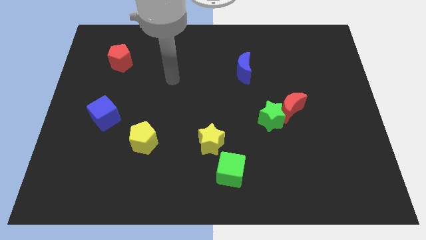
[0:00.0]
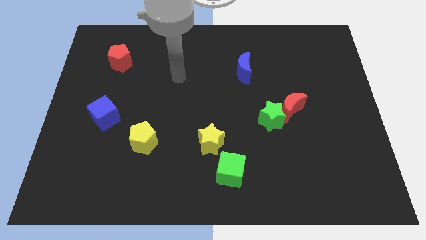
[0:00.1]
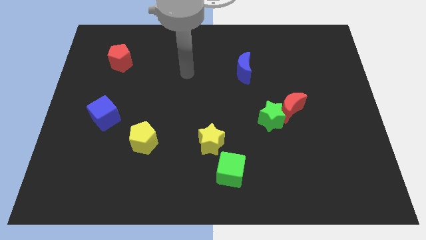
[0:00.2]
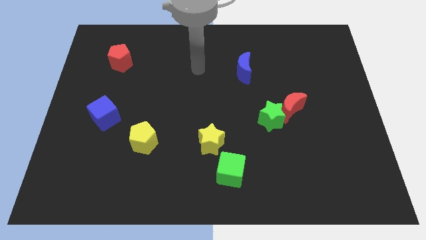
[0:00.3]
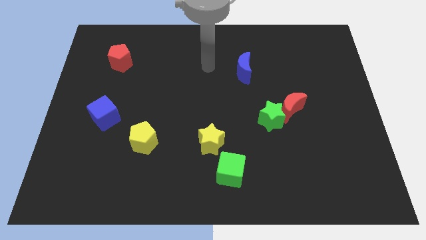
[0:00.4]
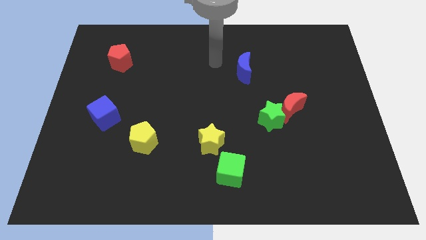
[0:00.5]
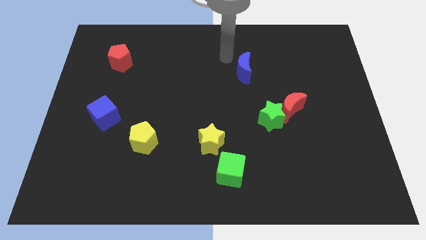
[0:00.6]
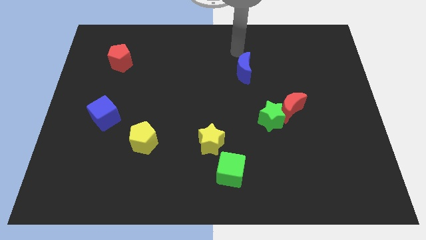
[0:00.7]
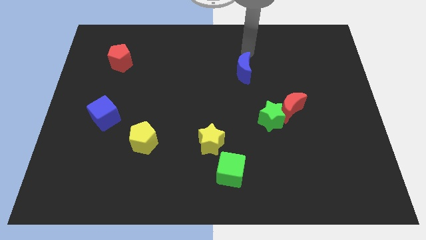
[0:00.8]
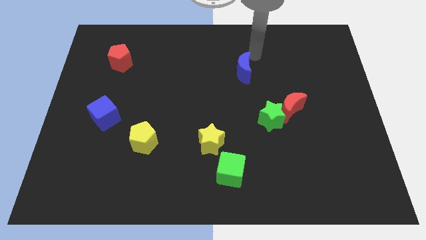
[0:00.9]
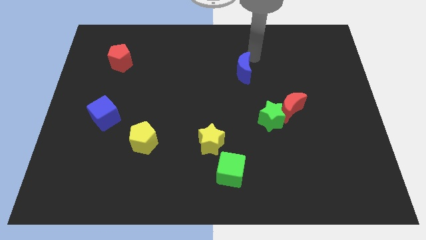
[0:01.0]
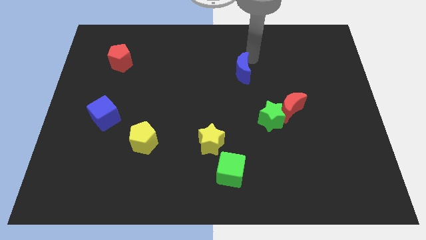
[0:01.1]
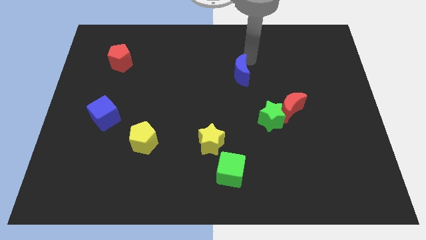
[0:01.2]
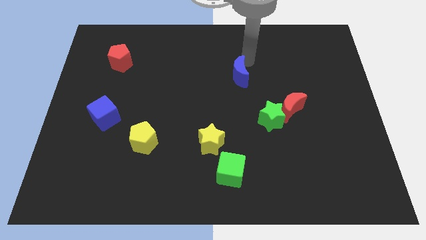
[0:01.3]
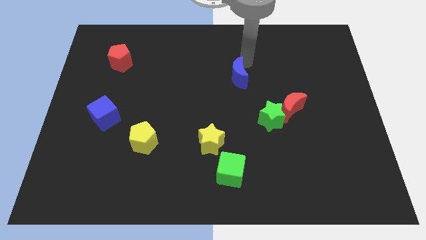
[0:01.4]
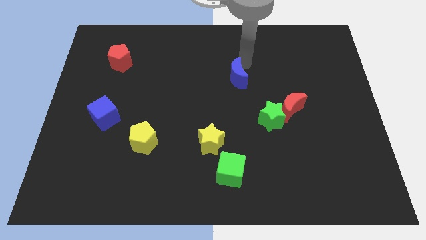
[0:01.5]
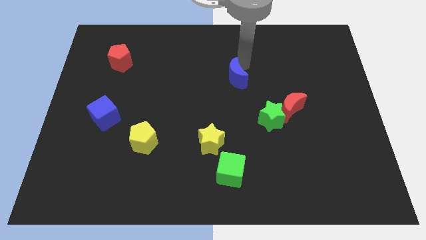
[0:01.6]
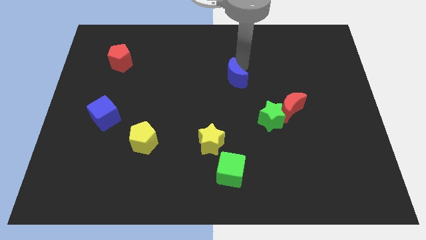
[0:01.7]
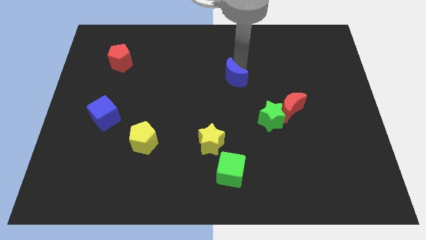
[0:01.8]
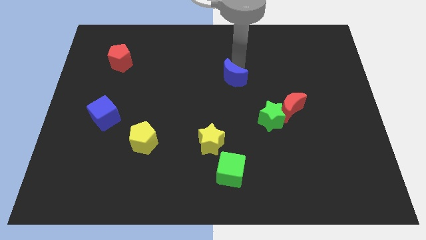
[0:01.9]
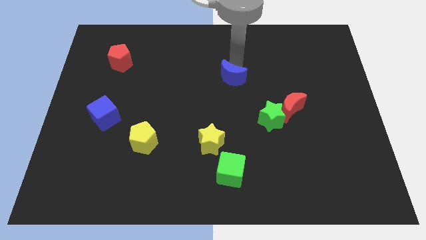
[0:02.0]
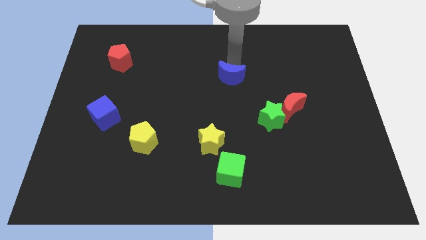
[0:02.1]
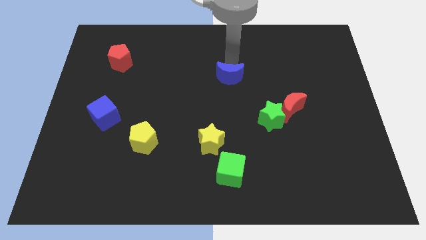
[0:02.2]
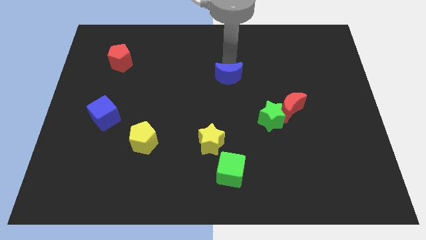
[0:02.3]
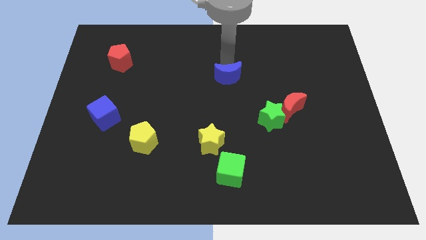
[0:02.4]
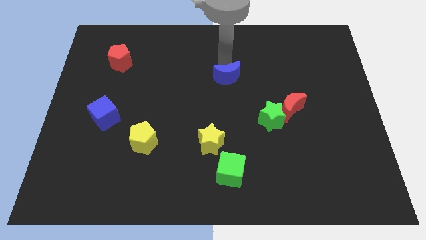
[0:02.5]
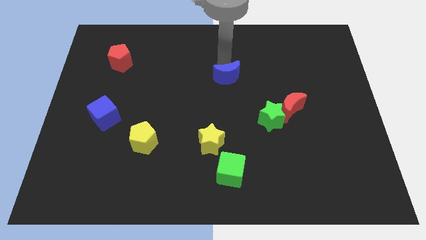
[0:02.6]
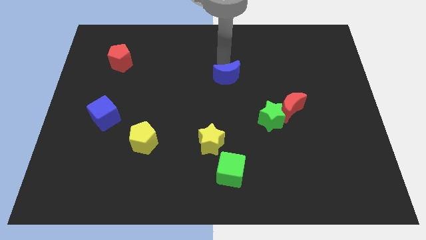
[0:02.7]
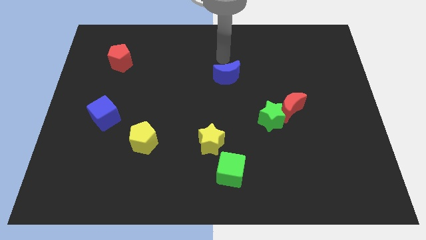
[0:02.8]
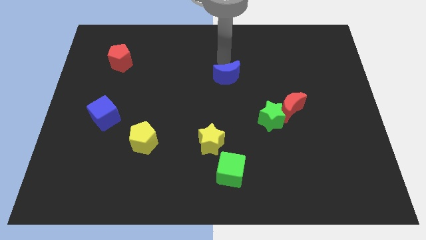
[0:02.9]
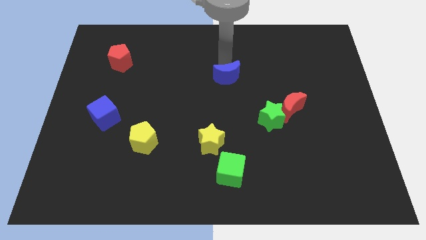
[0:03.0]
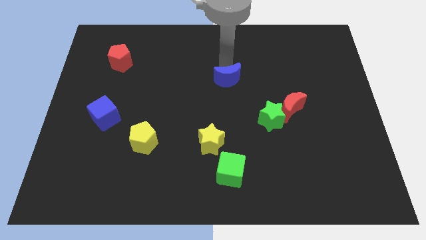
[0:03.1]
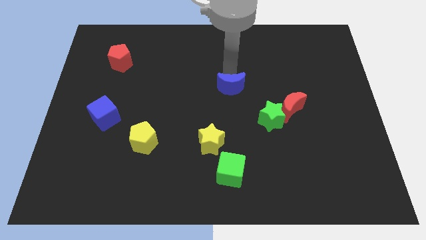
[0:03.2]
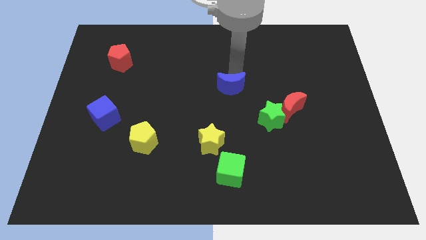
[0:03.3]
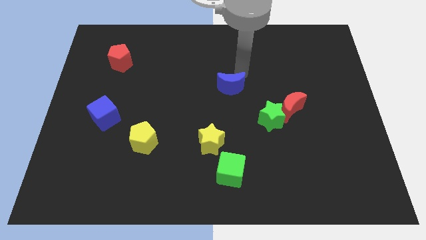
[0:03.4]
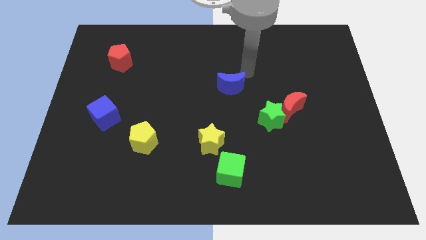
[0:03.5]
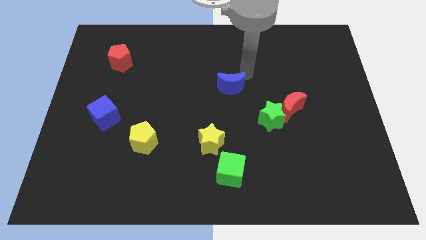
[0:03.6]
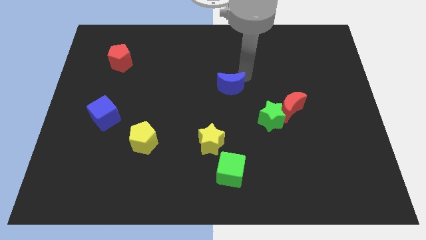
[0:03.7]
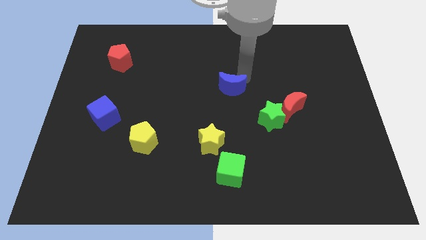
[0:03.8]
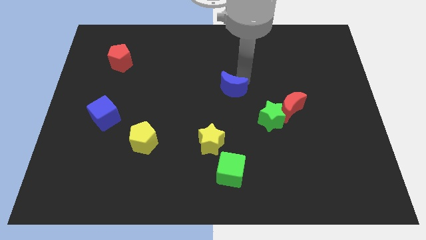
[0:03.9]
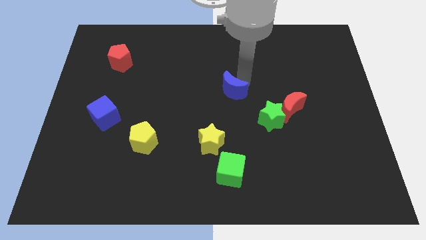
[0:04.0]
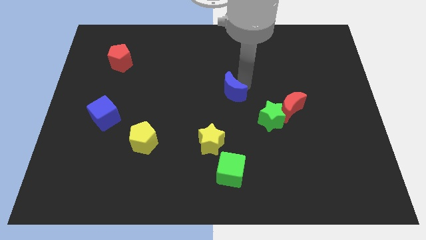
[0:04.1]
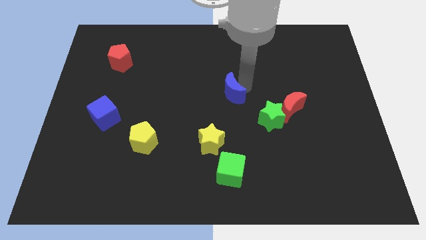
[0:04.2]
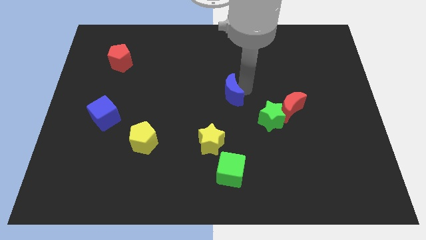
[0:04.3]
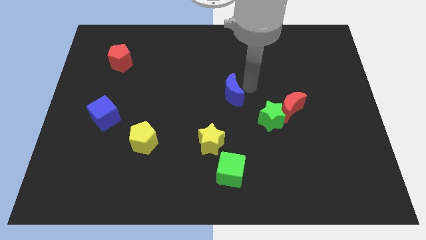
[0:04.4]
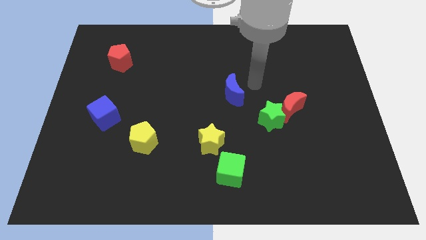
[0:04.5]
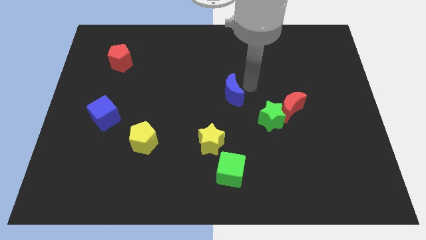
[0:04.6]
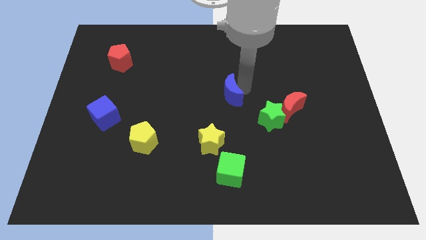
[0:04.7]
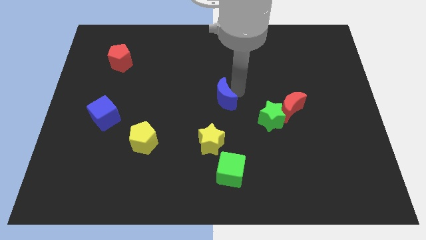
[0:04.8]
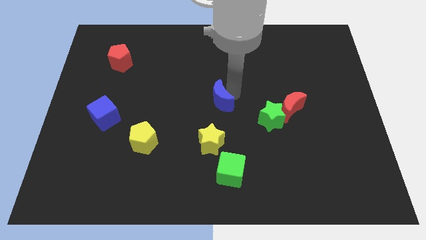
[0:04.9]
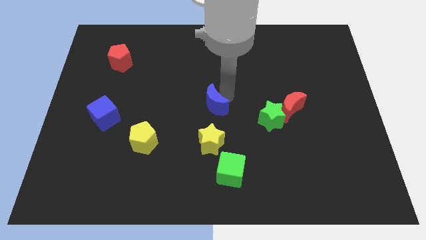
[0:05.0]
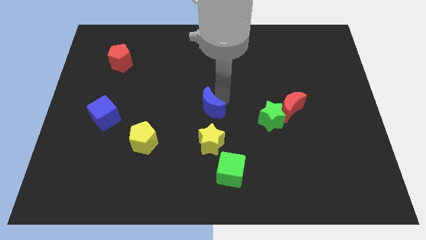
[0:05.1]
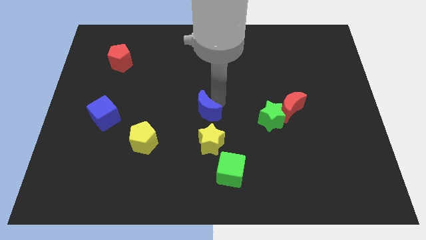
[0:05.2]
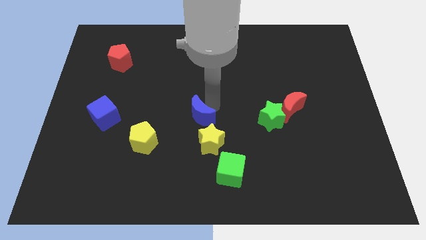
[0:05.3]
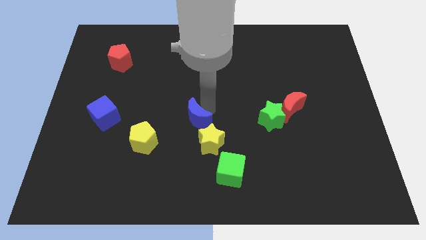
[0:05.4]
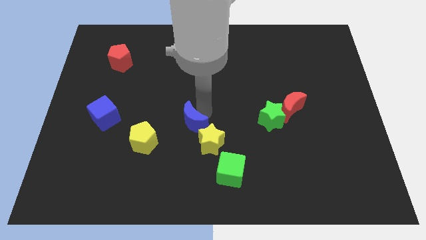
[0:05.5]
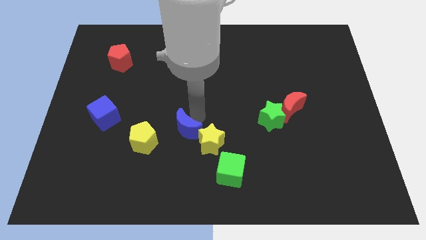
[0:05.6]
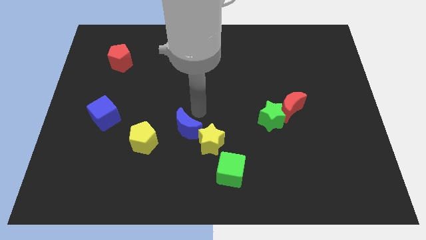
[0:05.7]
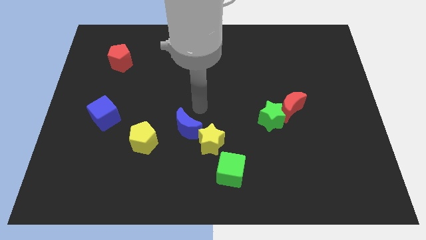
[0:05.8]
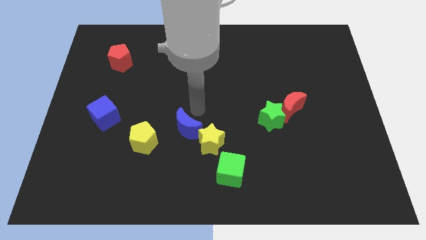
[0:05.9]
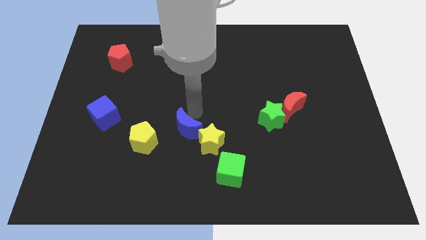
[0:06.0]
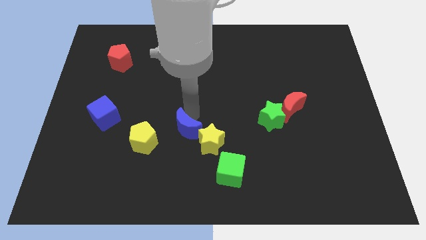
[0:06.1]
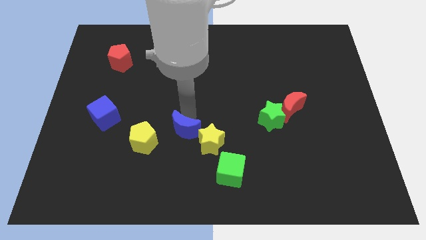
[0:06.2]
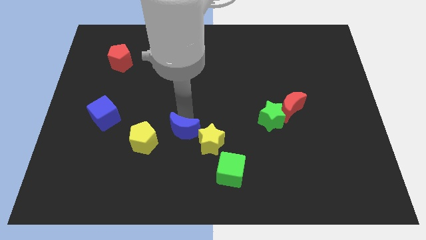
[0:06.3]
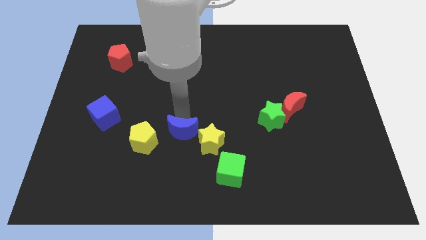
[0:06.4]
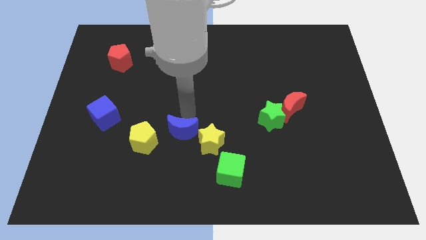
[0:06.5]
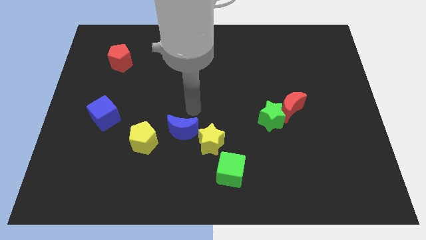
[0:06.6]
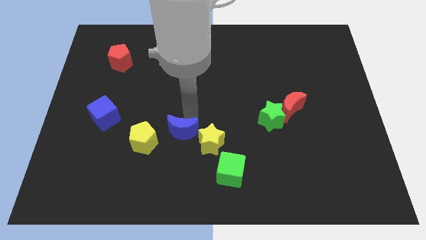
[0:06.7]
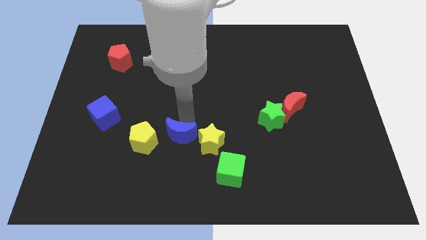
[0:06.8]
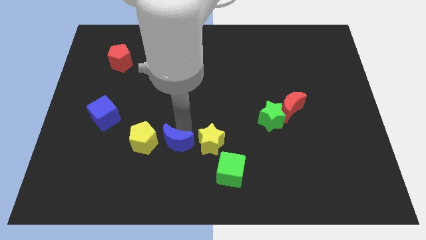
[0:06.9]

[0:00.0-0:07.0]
push the blue moon diagonally down and to the right of the yellow pentagon
